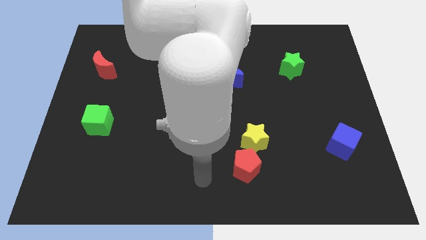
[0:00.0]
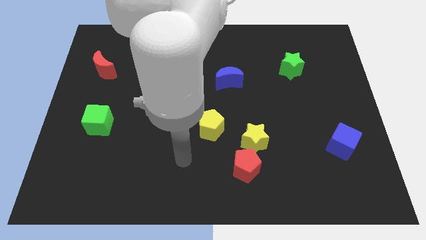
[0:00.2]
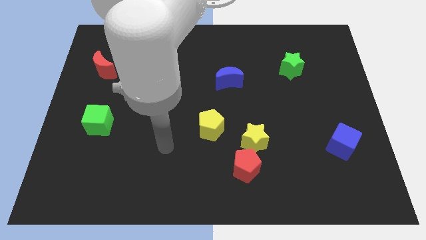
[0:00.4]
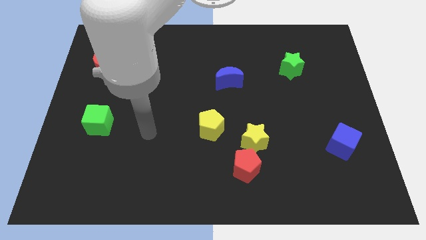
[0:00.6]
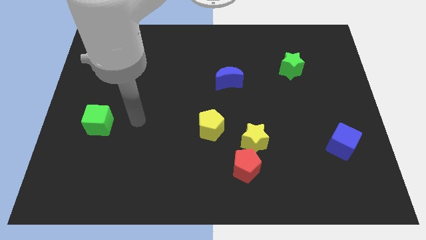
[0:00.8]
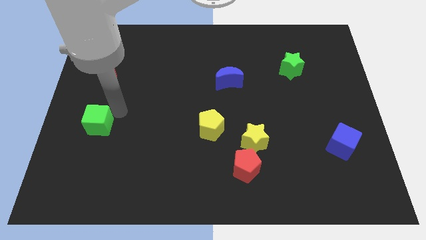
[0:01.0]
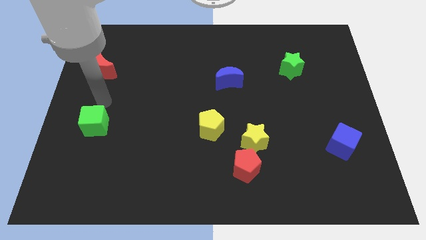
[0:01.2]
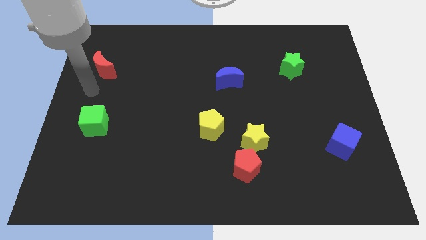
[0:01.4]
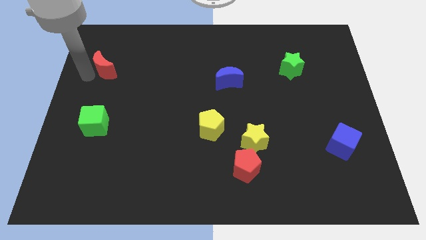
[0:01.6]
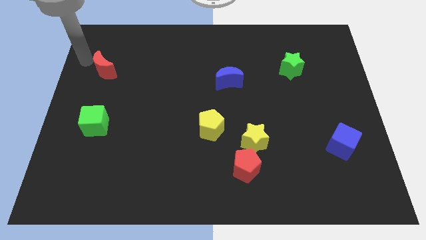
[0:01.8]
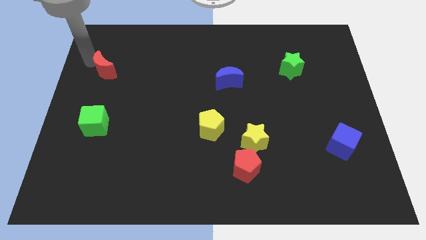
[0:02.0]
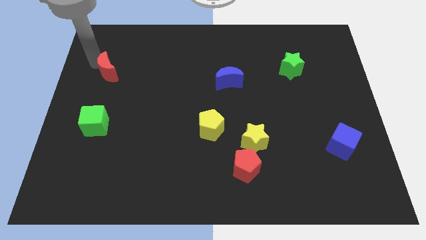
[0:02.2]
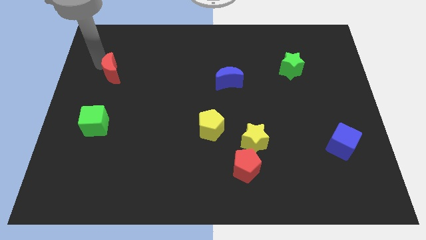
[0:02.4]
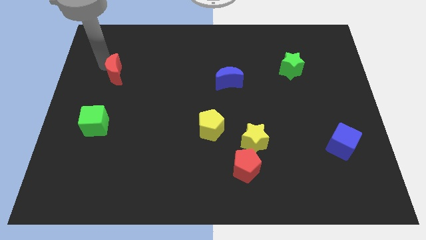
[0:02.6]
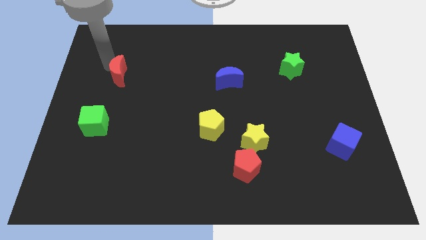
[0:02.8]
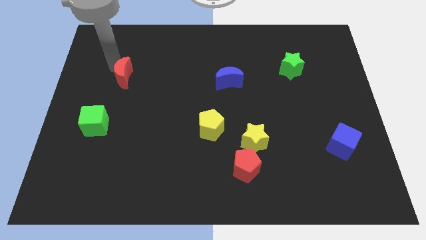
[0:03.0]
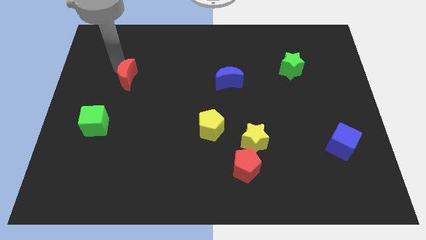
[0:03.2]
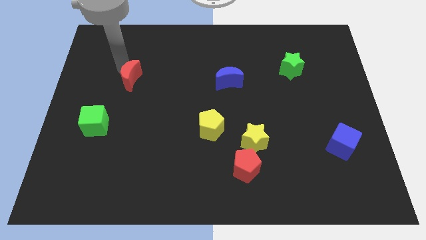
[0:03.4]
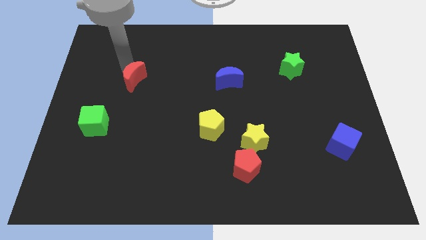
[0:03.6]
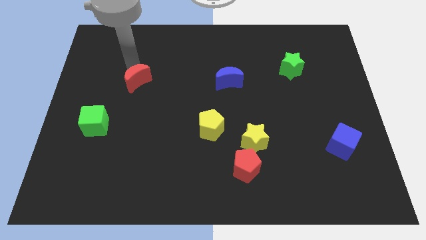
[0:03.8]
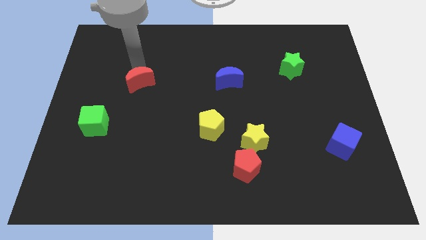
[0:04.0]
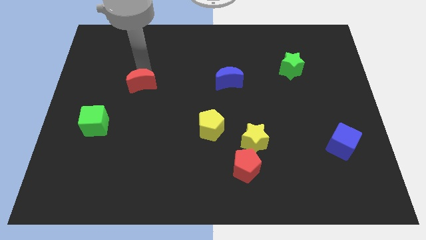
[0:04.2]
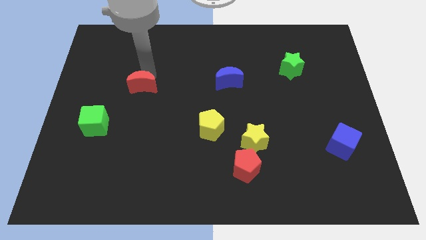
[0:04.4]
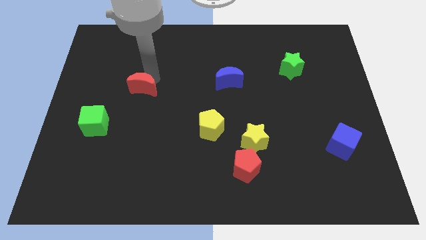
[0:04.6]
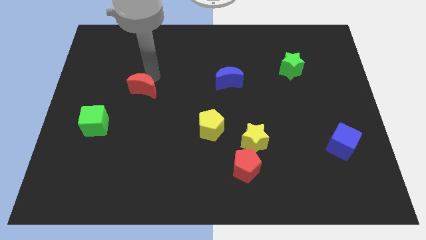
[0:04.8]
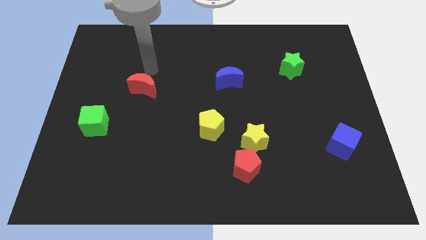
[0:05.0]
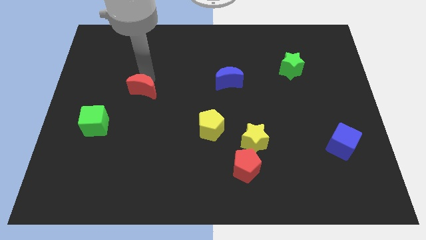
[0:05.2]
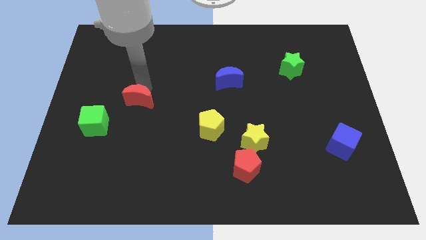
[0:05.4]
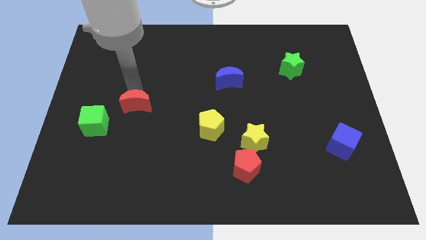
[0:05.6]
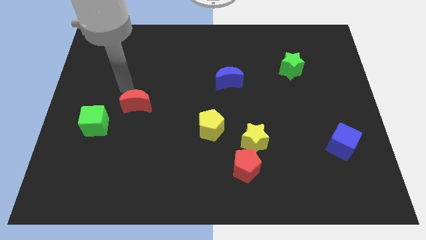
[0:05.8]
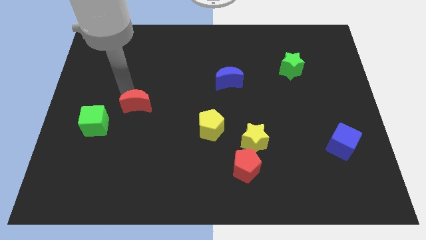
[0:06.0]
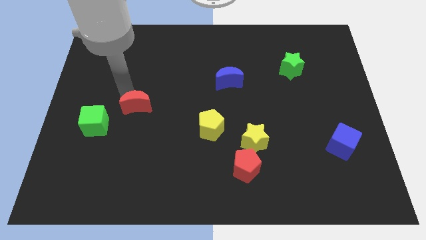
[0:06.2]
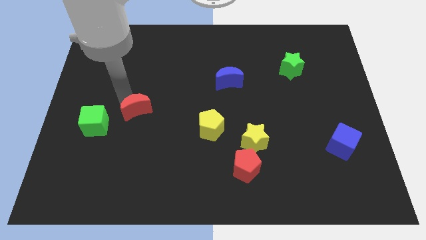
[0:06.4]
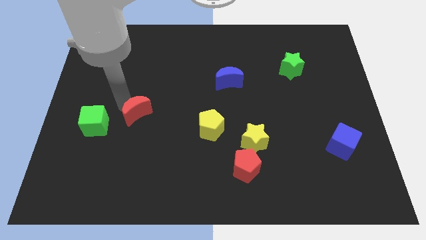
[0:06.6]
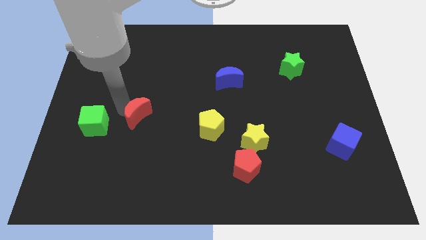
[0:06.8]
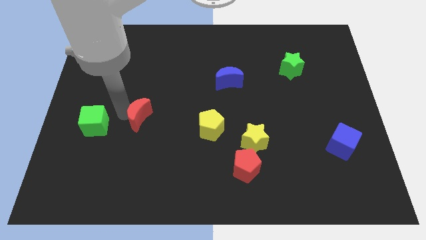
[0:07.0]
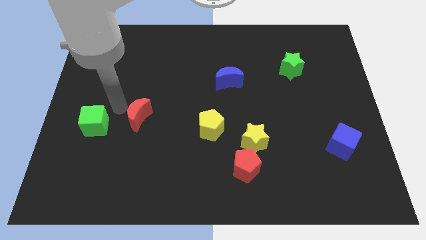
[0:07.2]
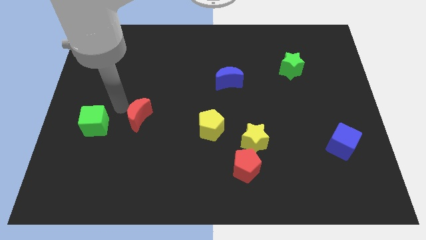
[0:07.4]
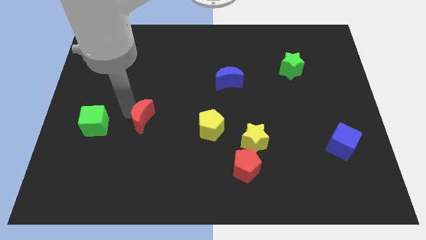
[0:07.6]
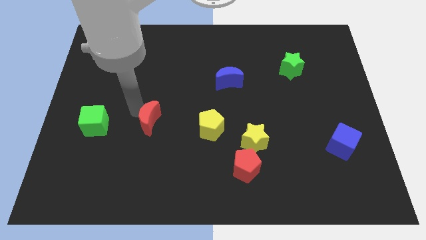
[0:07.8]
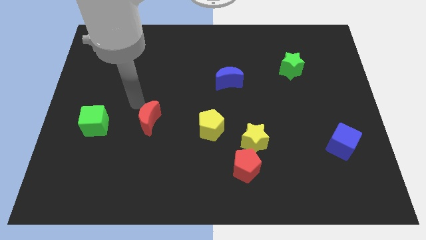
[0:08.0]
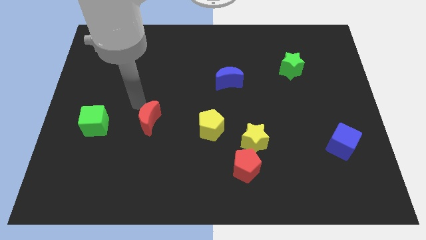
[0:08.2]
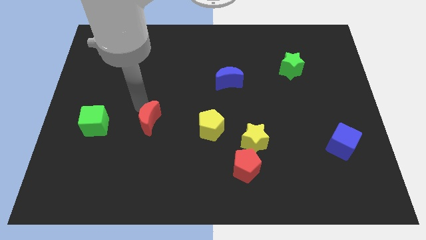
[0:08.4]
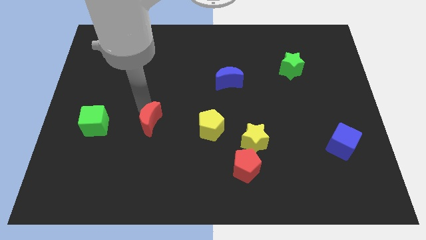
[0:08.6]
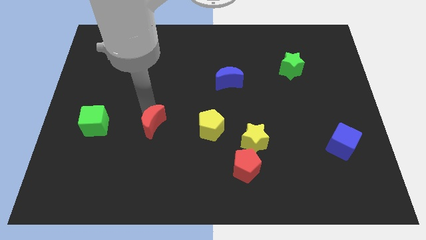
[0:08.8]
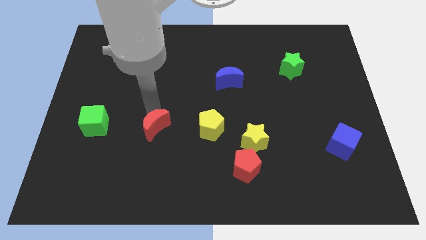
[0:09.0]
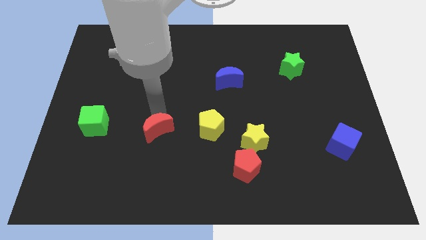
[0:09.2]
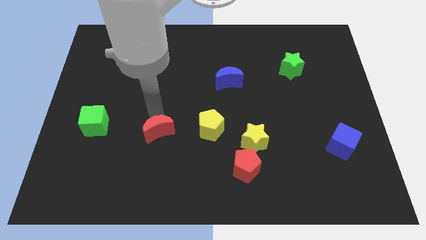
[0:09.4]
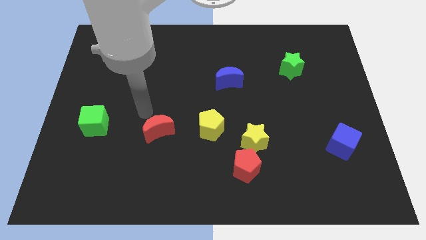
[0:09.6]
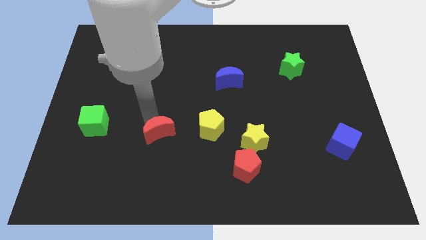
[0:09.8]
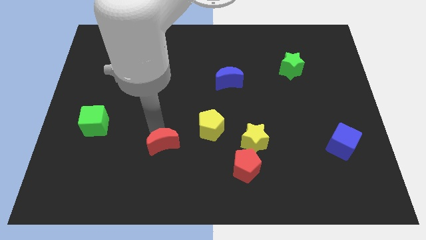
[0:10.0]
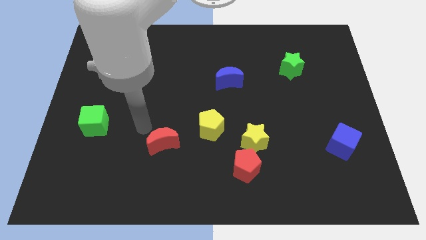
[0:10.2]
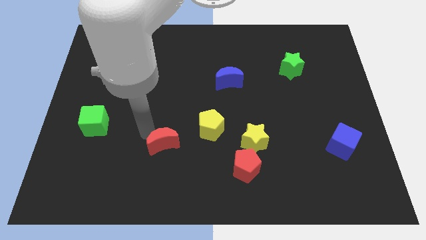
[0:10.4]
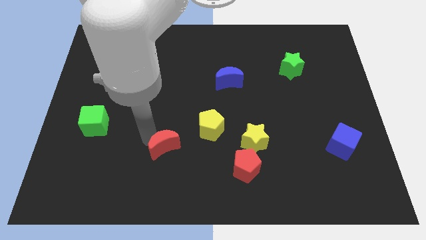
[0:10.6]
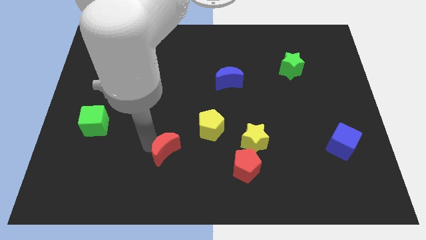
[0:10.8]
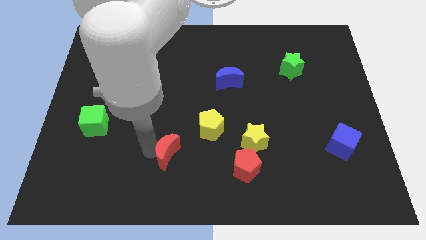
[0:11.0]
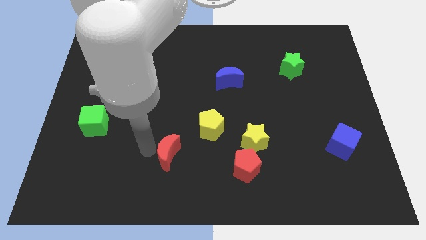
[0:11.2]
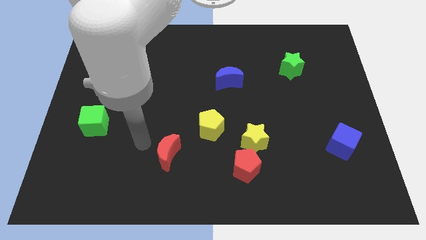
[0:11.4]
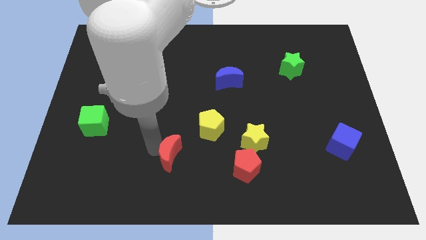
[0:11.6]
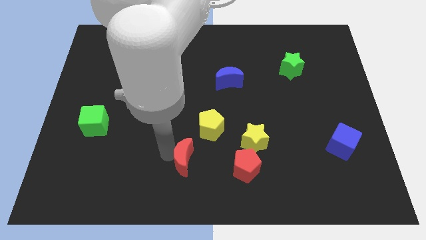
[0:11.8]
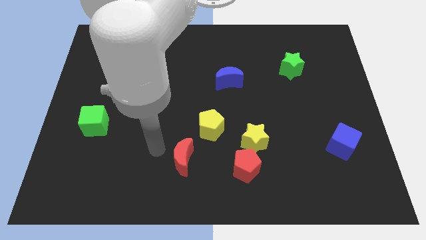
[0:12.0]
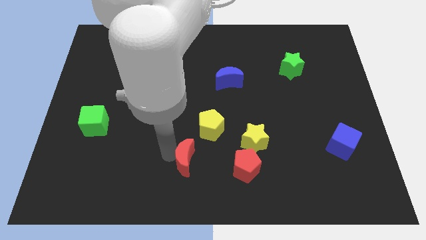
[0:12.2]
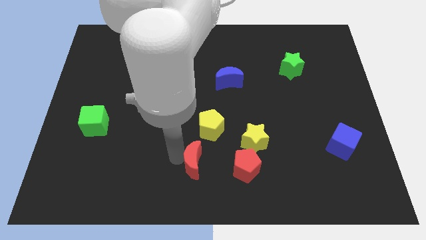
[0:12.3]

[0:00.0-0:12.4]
push the red moon to the bottom side of the yellow pentagon

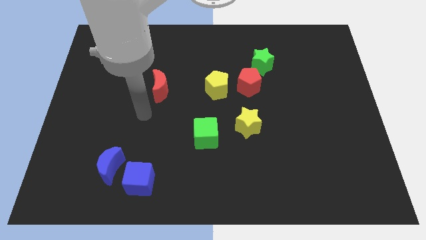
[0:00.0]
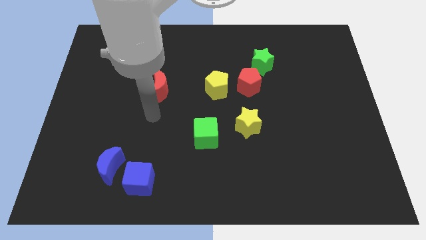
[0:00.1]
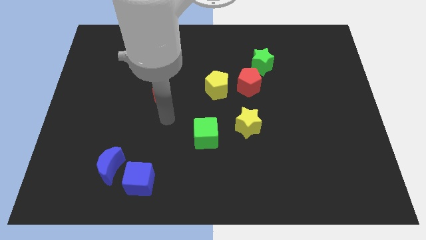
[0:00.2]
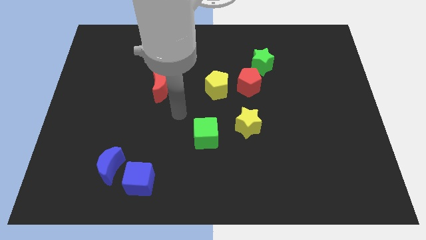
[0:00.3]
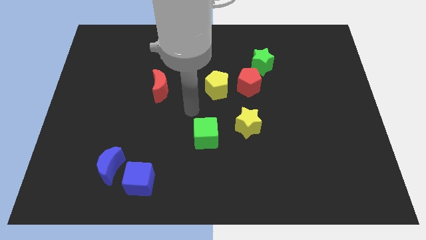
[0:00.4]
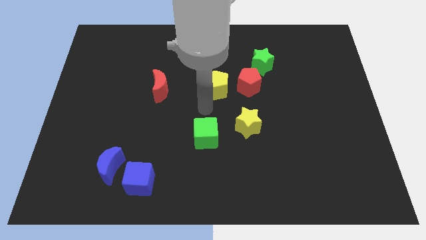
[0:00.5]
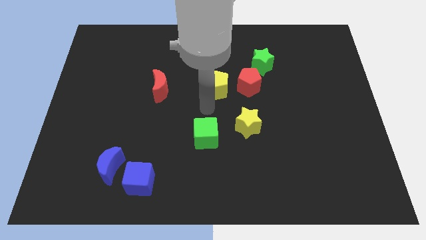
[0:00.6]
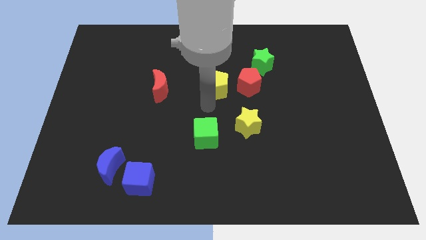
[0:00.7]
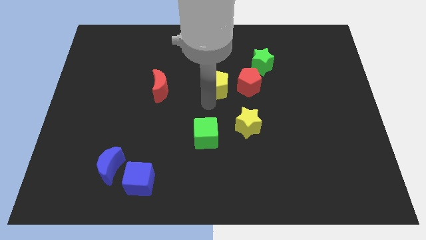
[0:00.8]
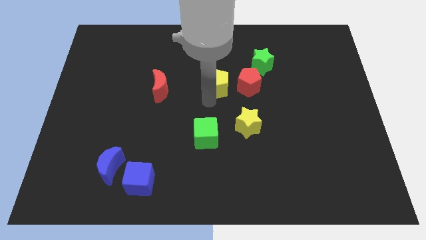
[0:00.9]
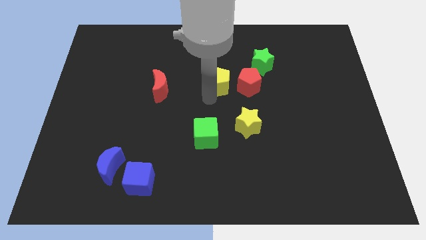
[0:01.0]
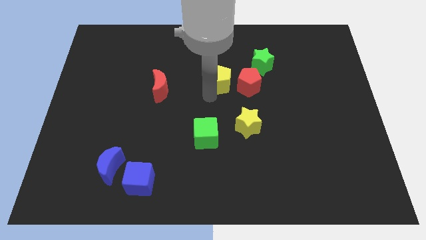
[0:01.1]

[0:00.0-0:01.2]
push the yellow pentagon diagonally up and to the left of the red pentagon

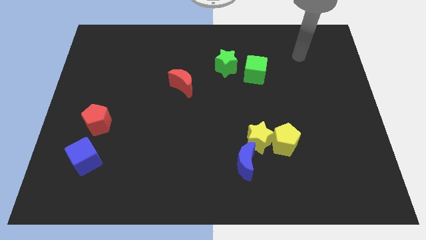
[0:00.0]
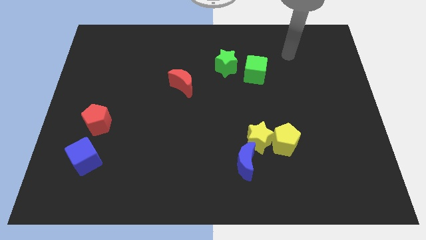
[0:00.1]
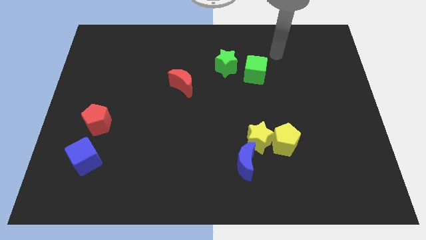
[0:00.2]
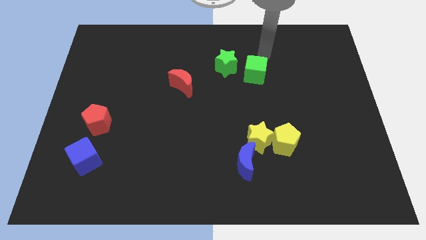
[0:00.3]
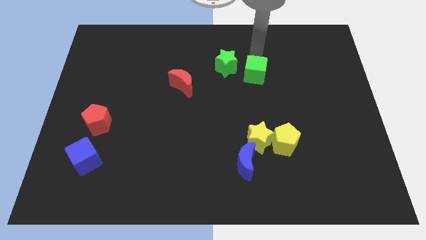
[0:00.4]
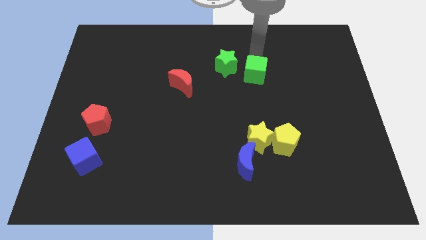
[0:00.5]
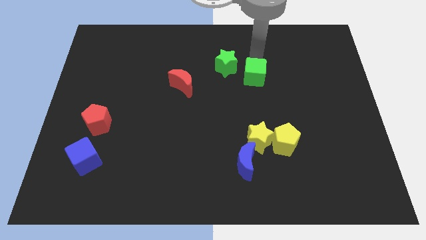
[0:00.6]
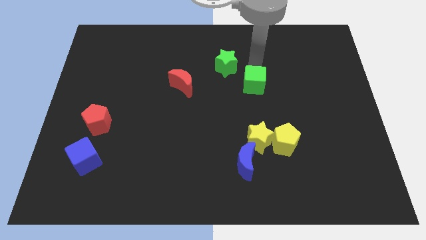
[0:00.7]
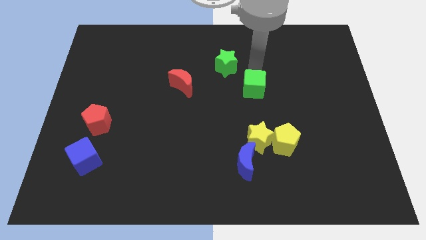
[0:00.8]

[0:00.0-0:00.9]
put the green cube above the yellow star
